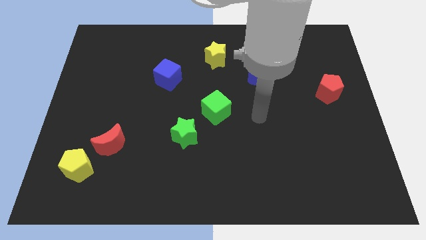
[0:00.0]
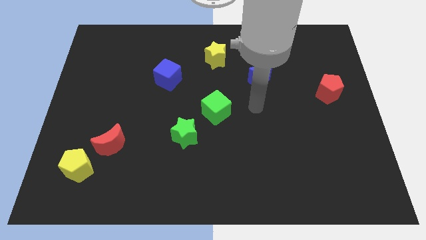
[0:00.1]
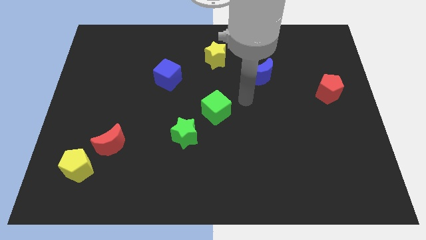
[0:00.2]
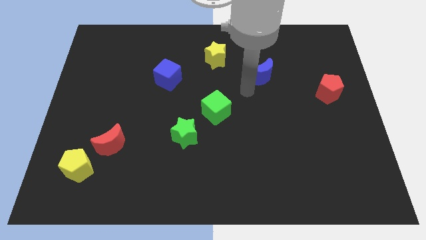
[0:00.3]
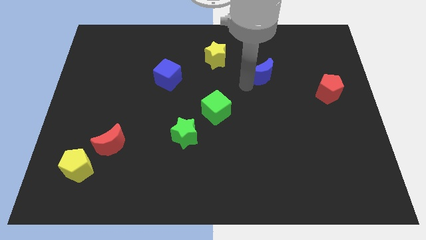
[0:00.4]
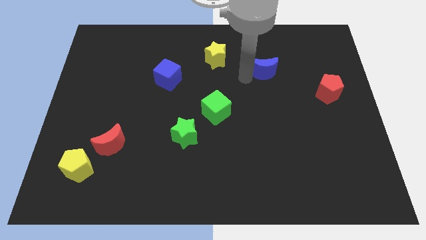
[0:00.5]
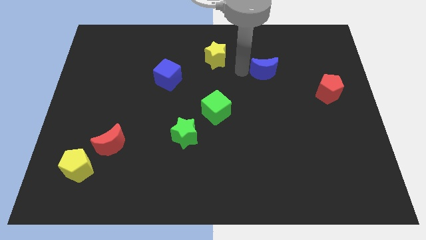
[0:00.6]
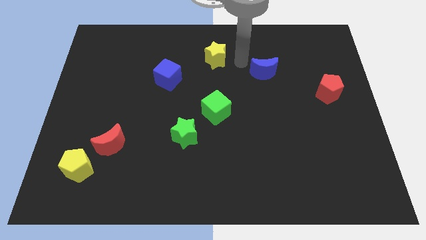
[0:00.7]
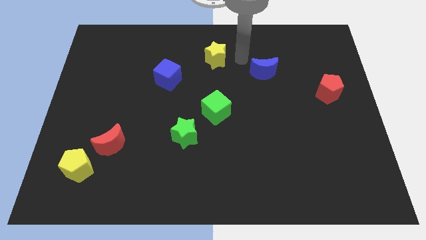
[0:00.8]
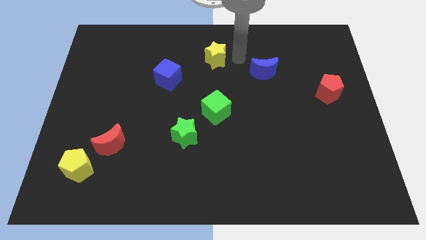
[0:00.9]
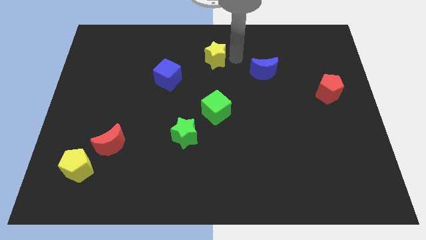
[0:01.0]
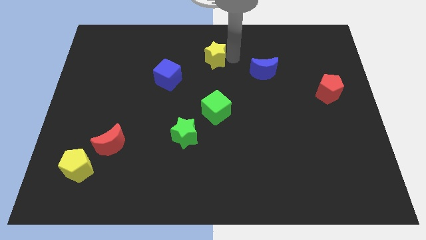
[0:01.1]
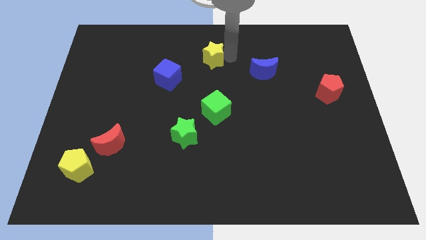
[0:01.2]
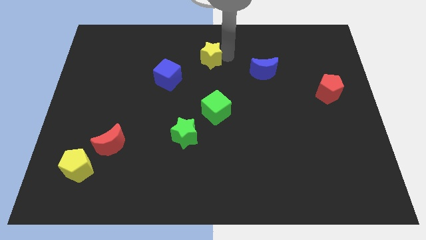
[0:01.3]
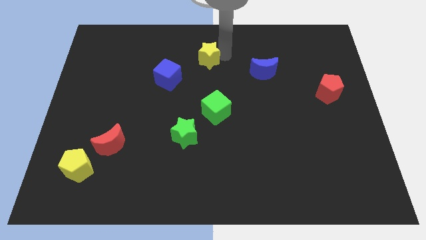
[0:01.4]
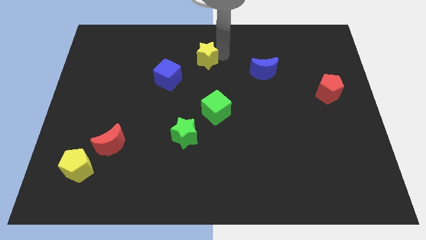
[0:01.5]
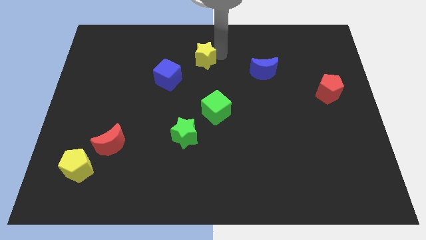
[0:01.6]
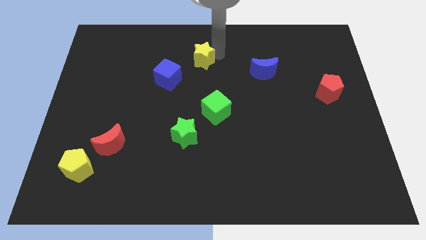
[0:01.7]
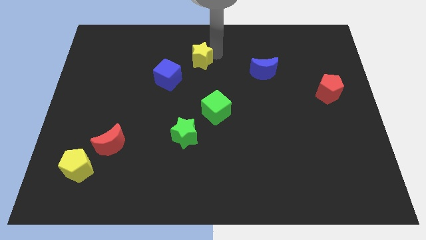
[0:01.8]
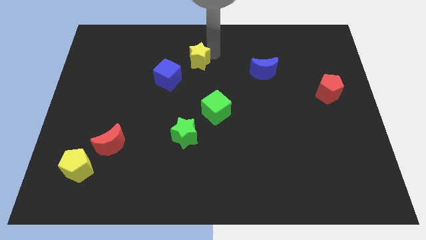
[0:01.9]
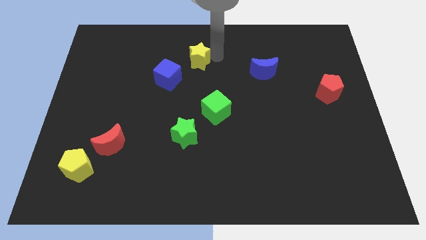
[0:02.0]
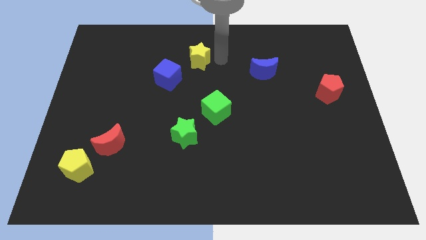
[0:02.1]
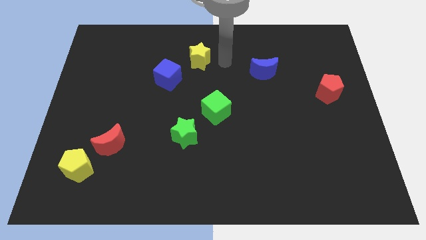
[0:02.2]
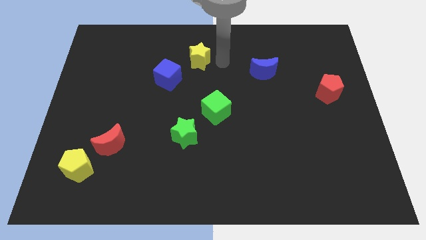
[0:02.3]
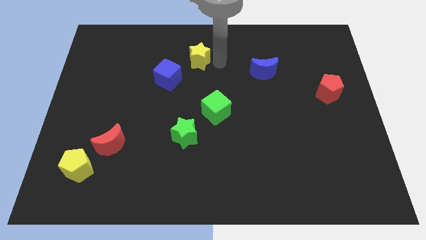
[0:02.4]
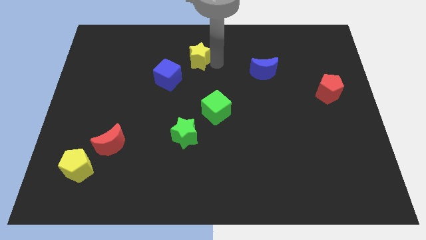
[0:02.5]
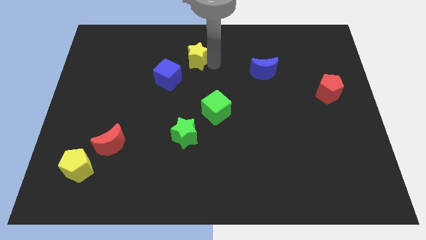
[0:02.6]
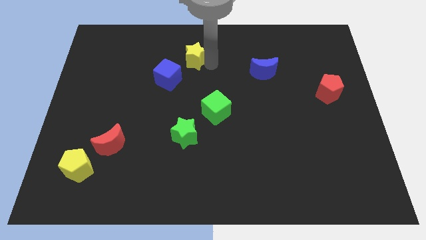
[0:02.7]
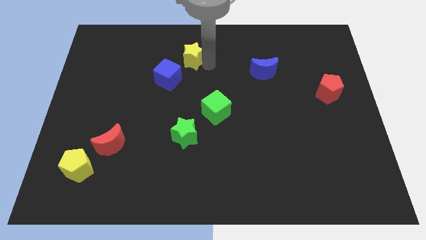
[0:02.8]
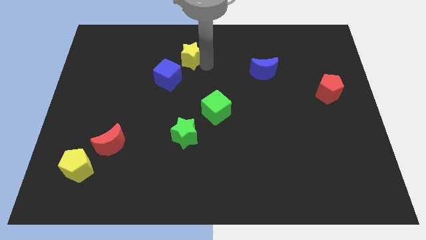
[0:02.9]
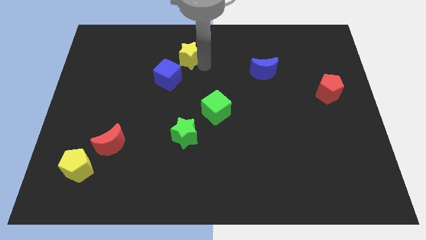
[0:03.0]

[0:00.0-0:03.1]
slightly push the yellow star left

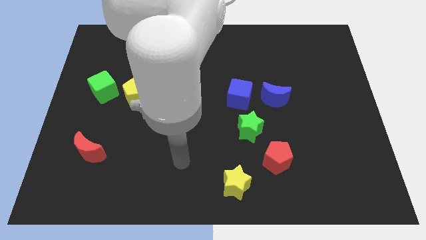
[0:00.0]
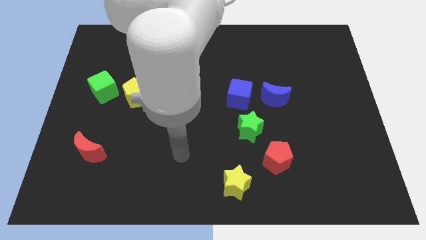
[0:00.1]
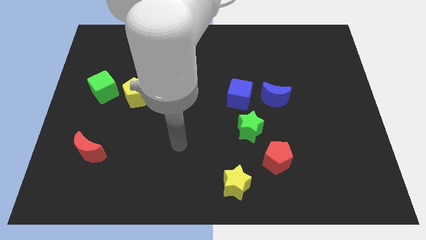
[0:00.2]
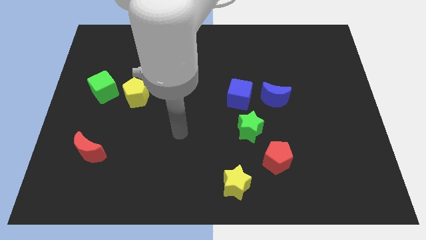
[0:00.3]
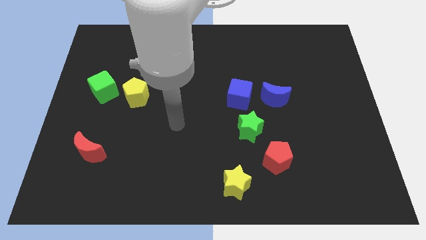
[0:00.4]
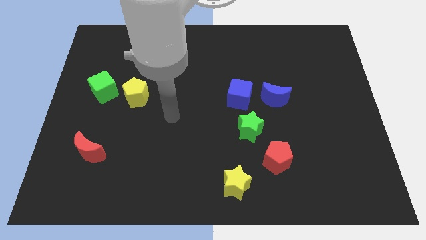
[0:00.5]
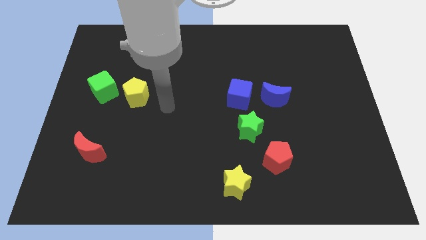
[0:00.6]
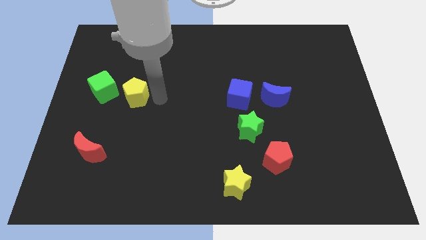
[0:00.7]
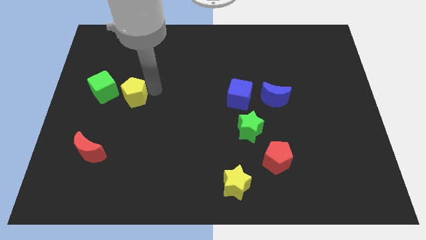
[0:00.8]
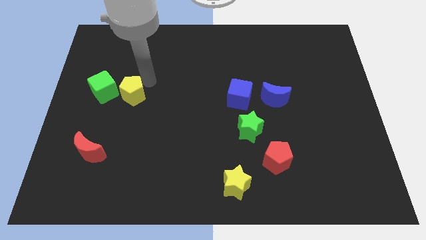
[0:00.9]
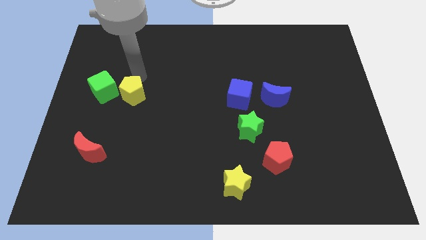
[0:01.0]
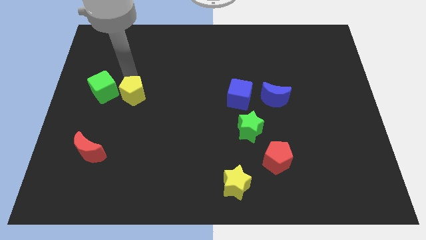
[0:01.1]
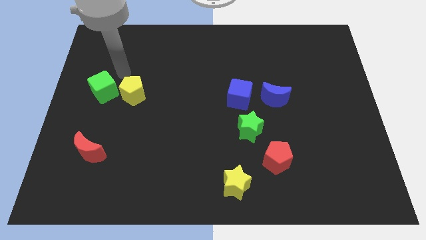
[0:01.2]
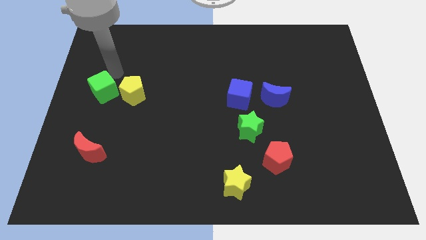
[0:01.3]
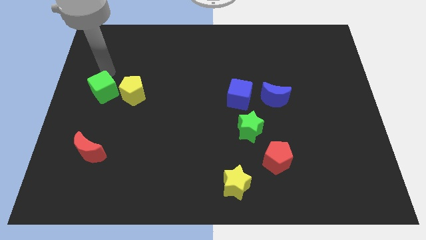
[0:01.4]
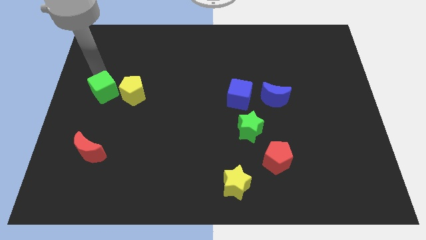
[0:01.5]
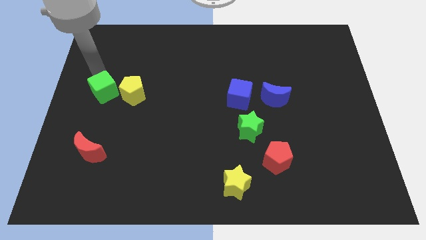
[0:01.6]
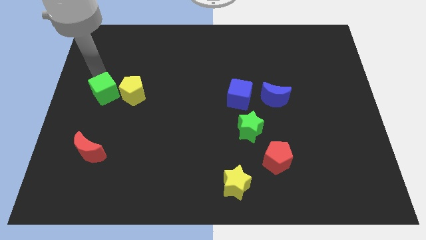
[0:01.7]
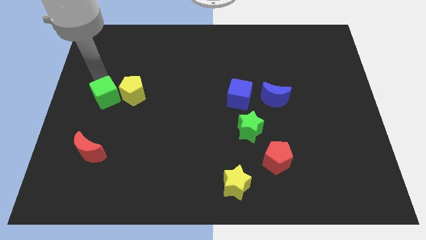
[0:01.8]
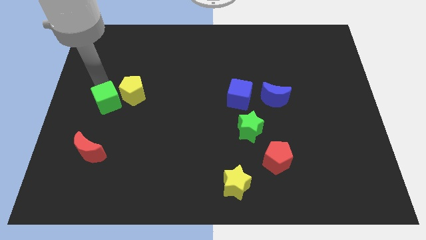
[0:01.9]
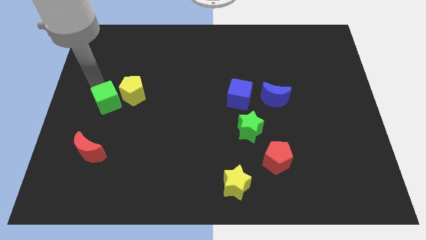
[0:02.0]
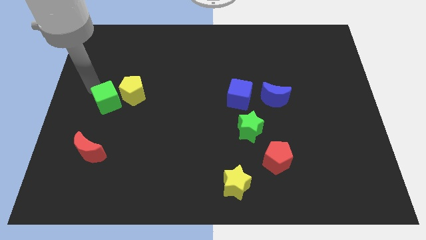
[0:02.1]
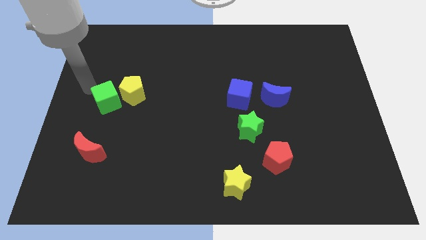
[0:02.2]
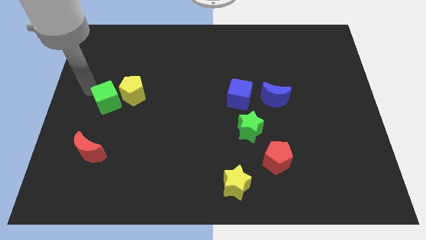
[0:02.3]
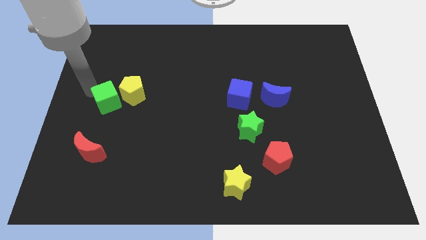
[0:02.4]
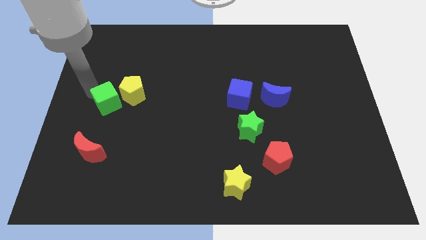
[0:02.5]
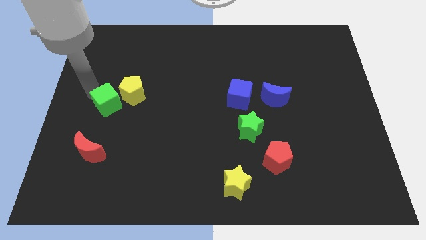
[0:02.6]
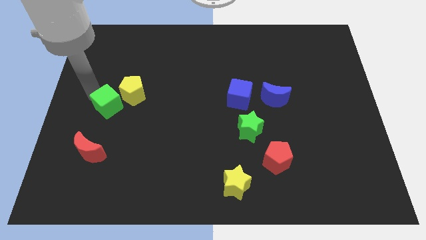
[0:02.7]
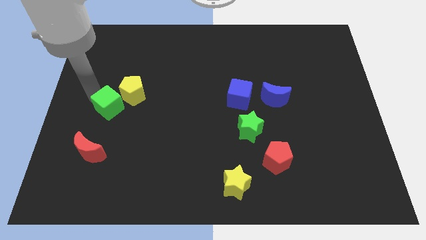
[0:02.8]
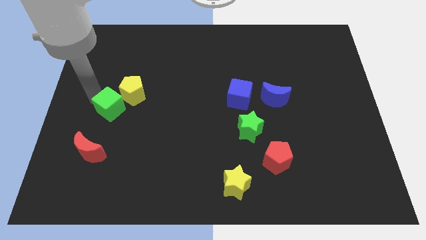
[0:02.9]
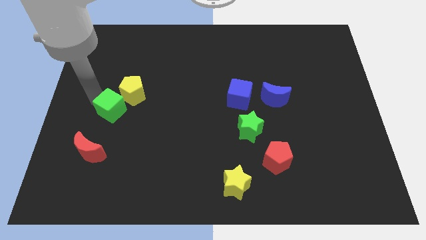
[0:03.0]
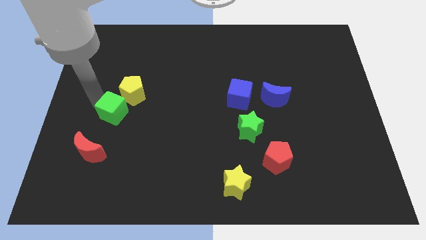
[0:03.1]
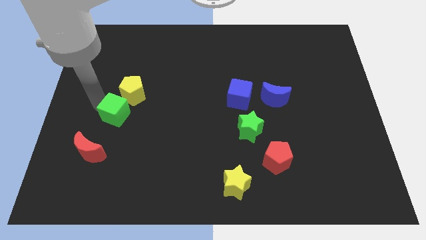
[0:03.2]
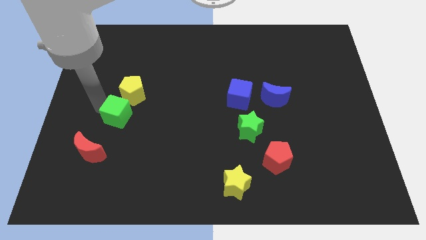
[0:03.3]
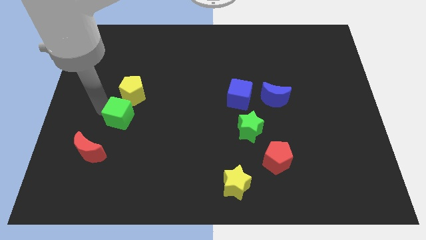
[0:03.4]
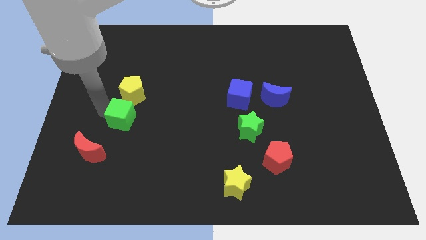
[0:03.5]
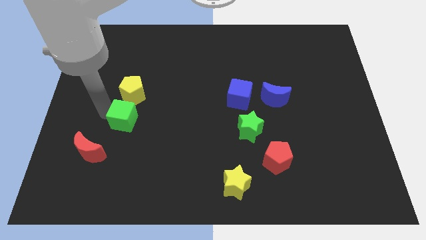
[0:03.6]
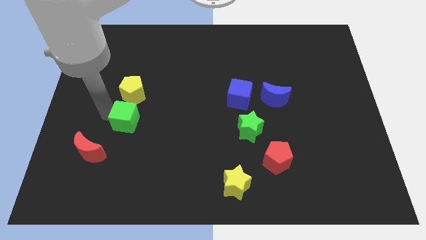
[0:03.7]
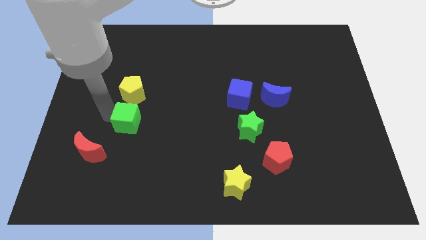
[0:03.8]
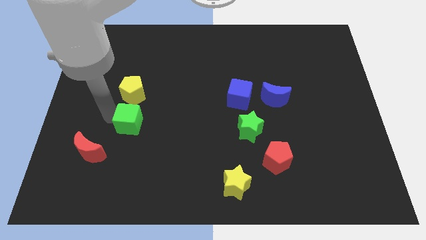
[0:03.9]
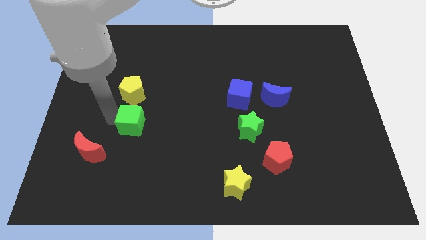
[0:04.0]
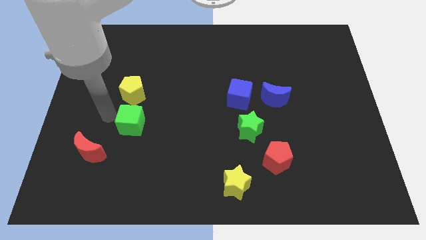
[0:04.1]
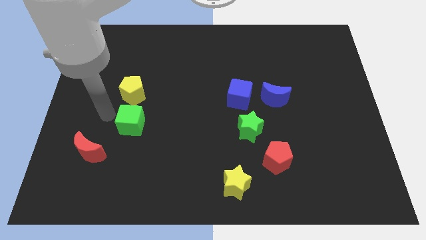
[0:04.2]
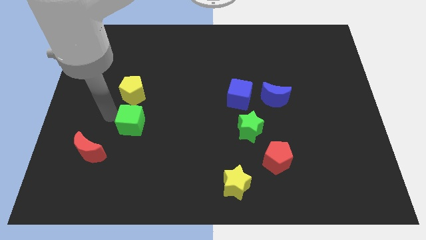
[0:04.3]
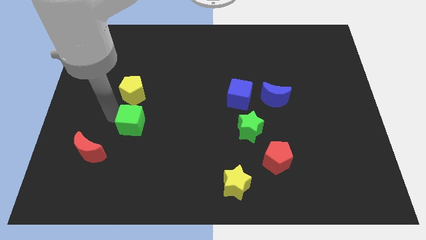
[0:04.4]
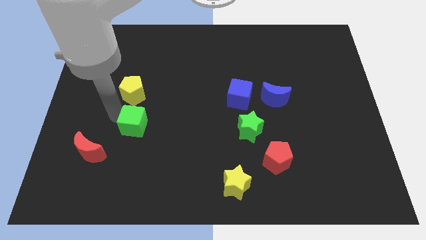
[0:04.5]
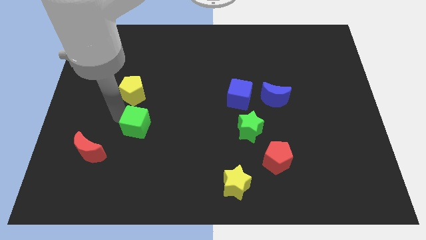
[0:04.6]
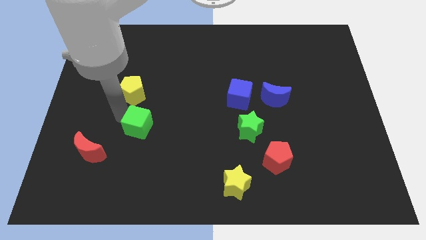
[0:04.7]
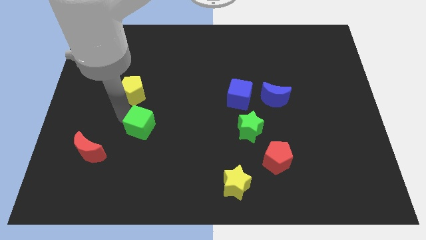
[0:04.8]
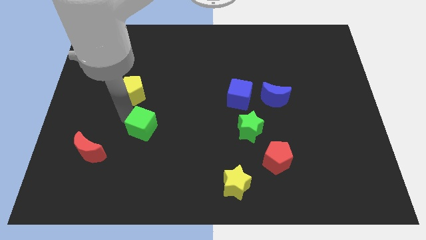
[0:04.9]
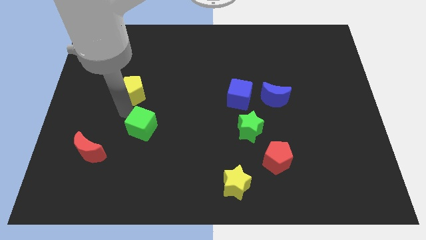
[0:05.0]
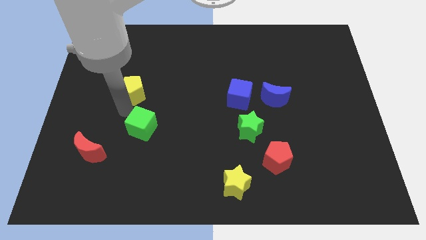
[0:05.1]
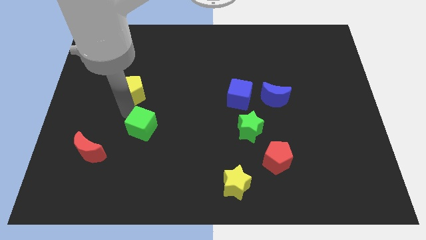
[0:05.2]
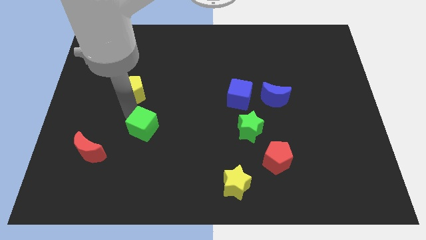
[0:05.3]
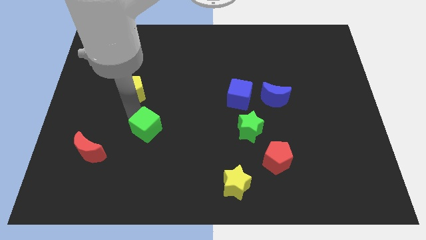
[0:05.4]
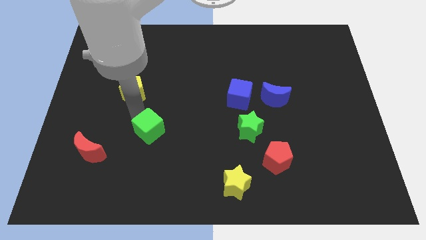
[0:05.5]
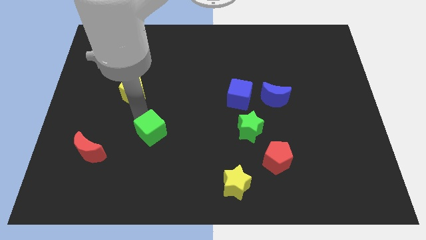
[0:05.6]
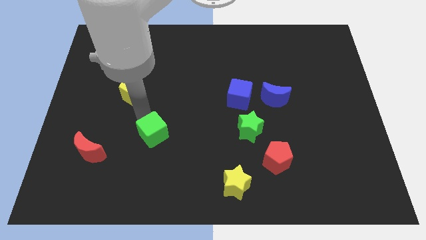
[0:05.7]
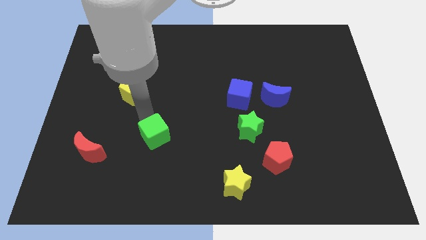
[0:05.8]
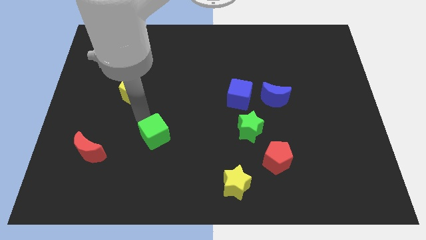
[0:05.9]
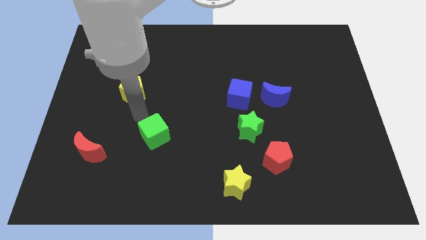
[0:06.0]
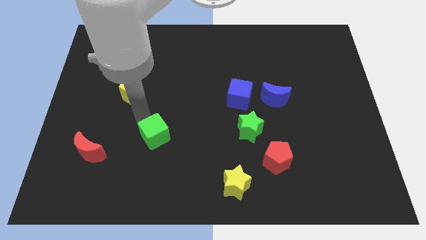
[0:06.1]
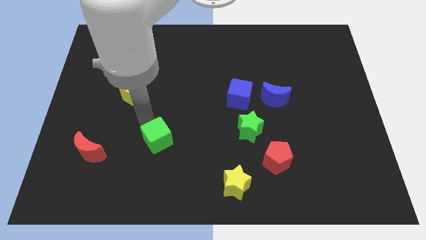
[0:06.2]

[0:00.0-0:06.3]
slide the green cube diagonally down and to the right
